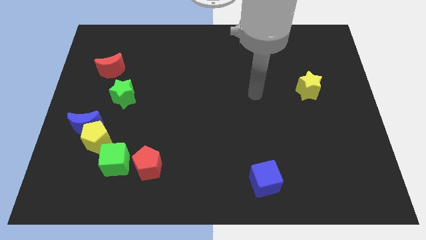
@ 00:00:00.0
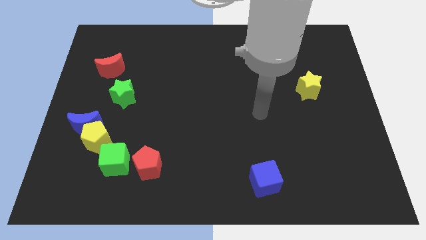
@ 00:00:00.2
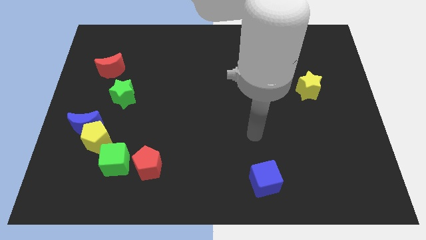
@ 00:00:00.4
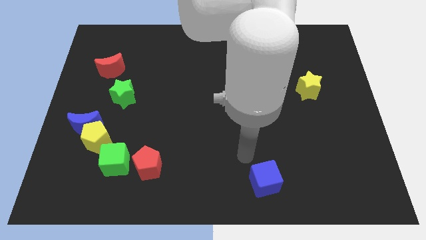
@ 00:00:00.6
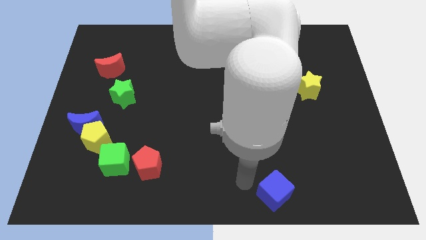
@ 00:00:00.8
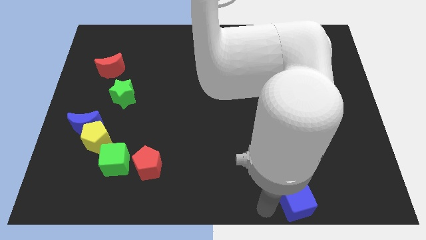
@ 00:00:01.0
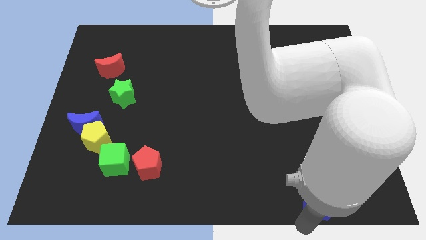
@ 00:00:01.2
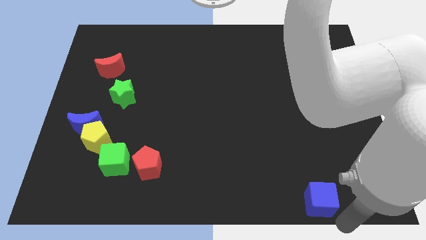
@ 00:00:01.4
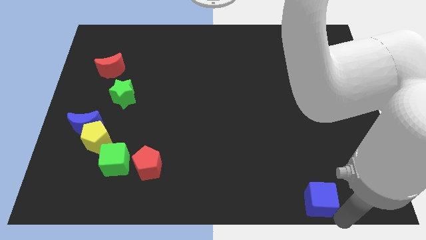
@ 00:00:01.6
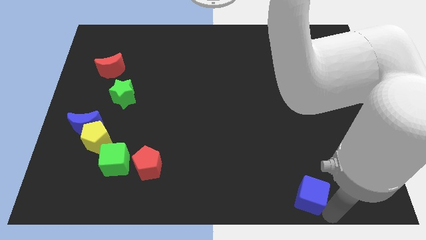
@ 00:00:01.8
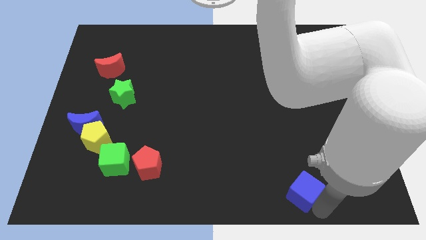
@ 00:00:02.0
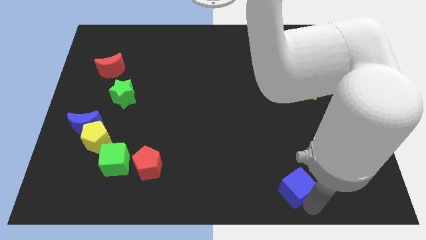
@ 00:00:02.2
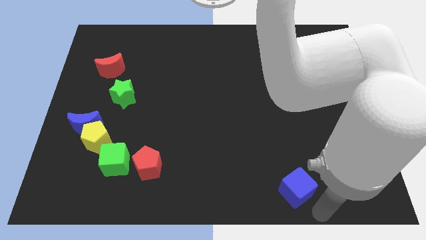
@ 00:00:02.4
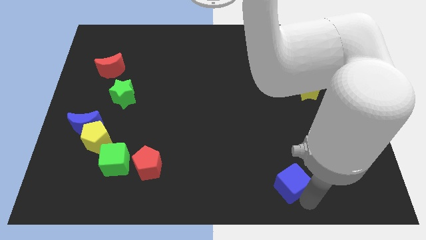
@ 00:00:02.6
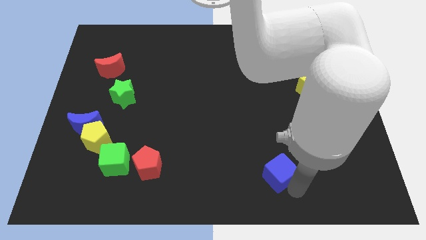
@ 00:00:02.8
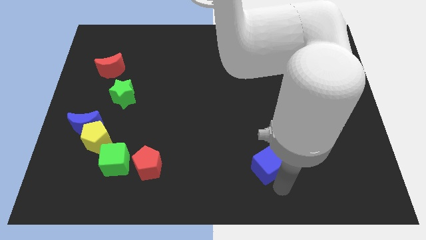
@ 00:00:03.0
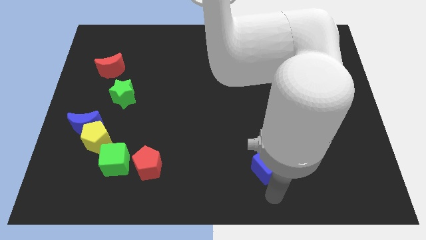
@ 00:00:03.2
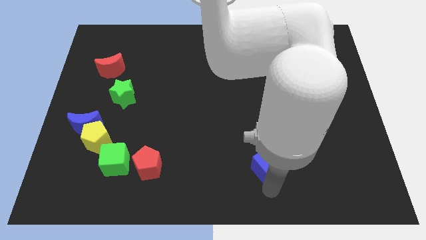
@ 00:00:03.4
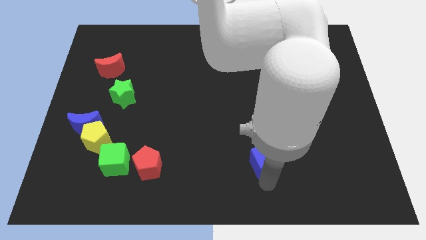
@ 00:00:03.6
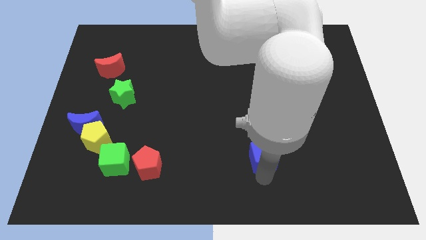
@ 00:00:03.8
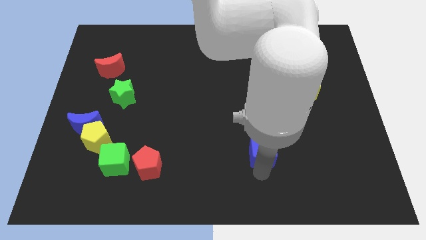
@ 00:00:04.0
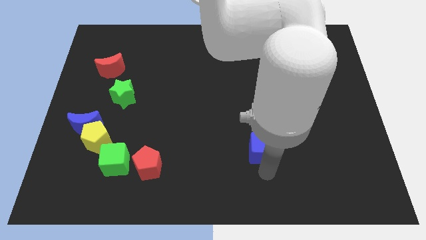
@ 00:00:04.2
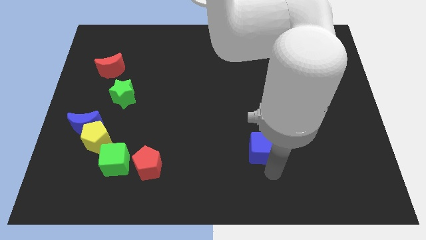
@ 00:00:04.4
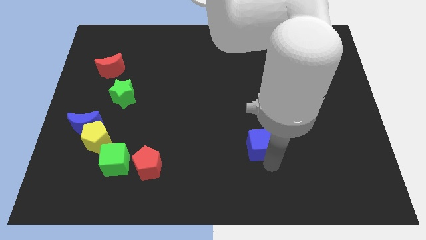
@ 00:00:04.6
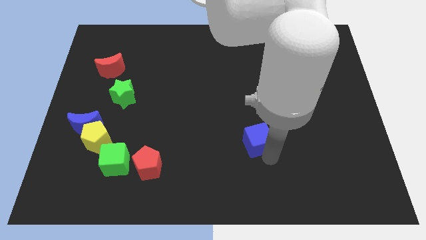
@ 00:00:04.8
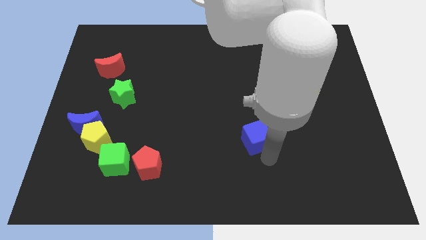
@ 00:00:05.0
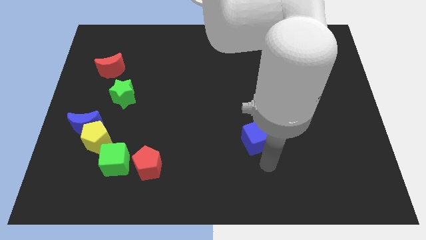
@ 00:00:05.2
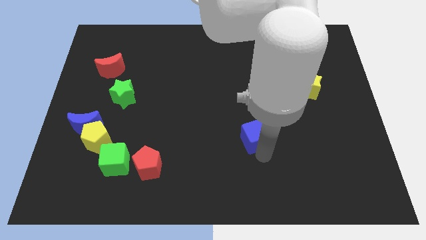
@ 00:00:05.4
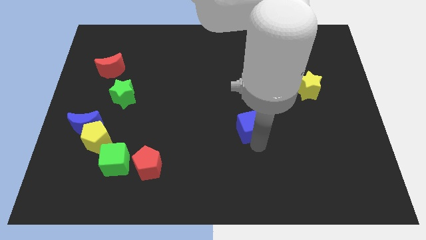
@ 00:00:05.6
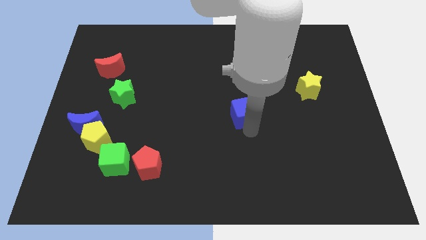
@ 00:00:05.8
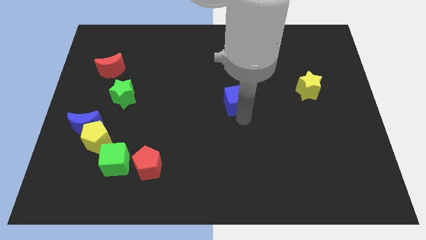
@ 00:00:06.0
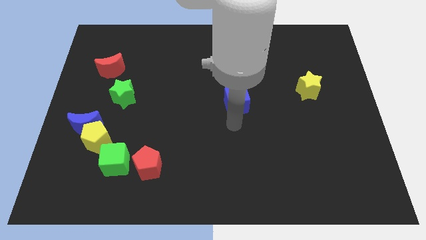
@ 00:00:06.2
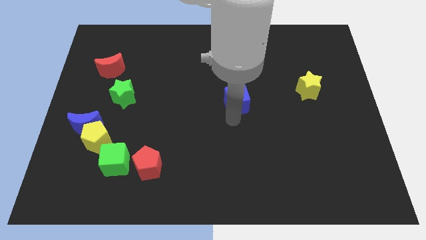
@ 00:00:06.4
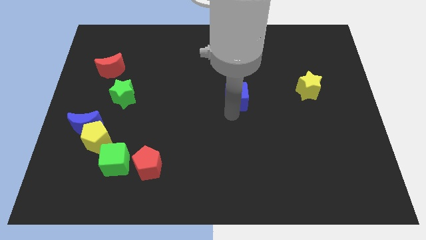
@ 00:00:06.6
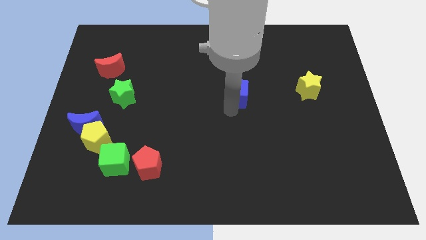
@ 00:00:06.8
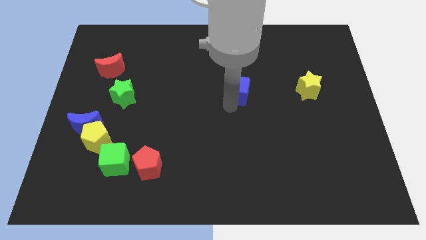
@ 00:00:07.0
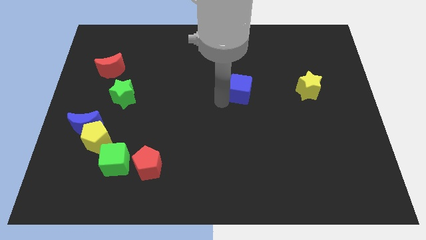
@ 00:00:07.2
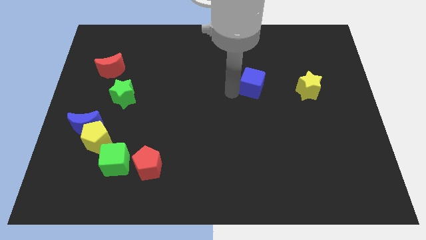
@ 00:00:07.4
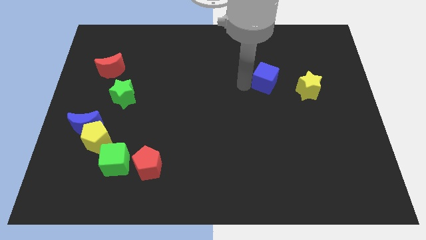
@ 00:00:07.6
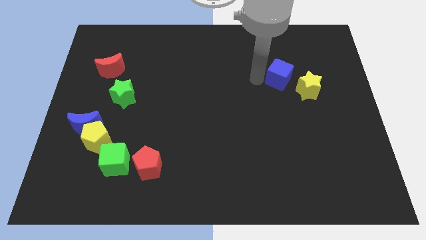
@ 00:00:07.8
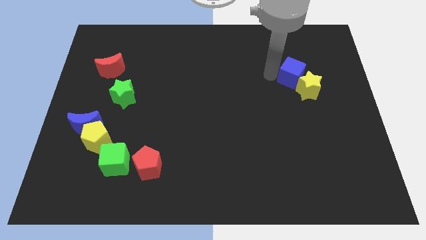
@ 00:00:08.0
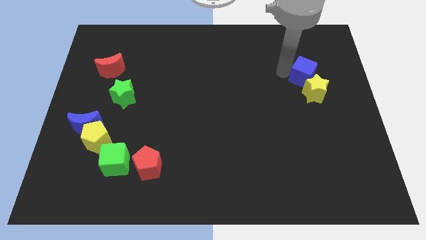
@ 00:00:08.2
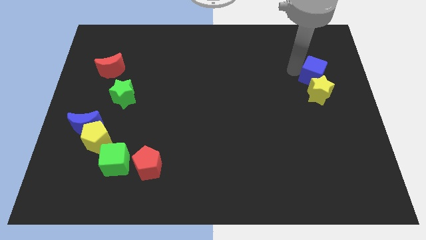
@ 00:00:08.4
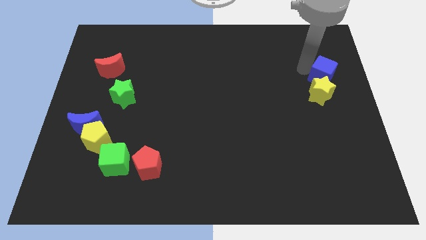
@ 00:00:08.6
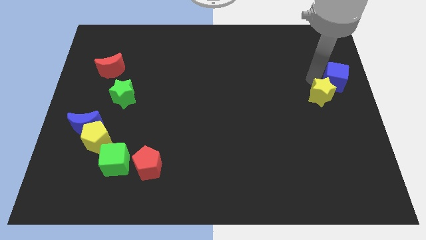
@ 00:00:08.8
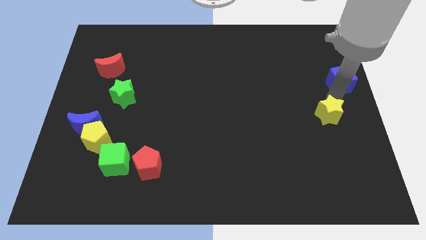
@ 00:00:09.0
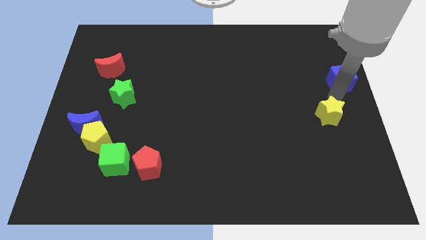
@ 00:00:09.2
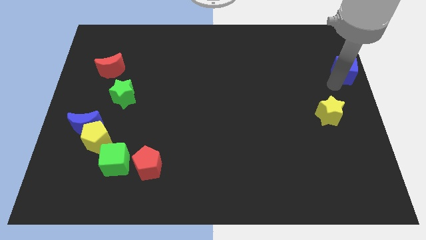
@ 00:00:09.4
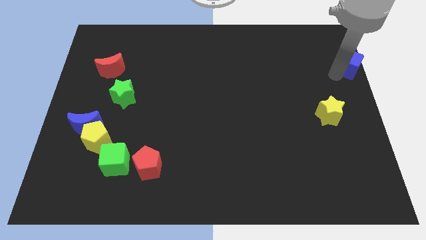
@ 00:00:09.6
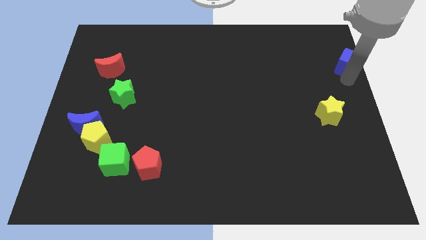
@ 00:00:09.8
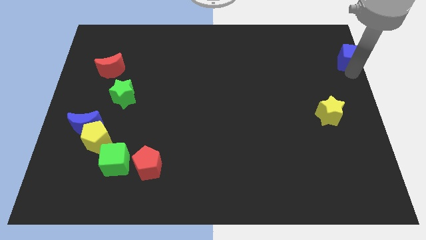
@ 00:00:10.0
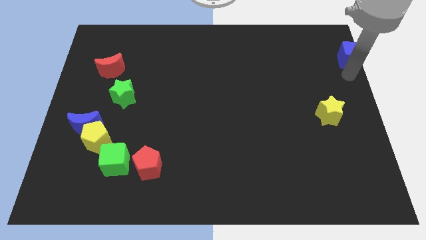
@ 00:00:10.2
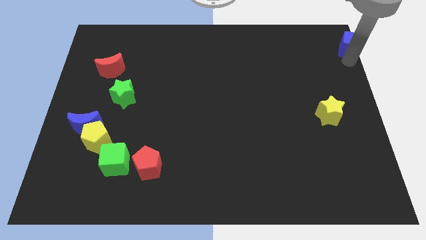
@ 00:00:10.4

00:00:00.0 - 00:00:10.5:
move the blue cube to the top right corner
